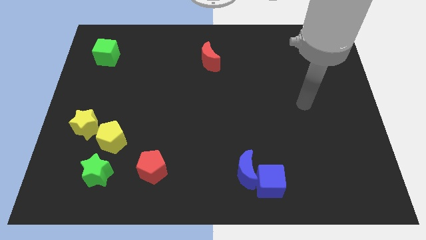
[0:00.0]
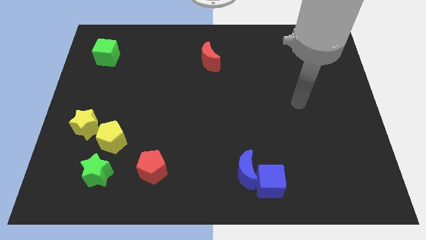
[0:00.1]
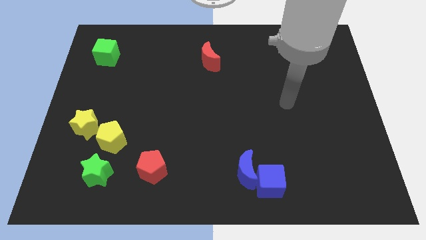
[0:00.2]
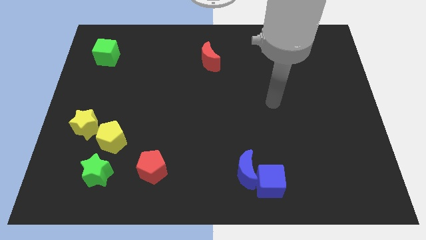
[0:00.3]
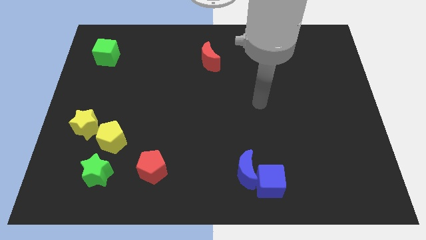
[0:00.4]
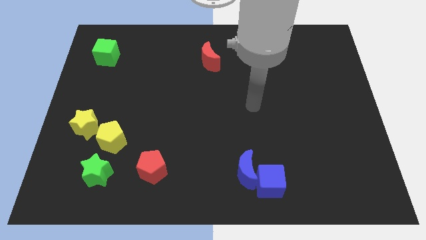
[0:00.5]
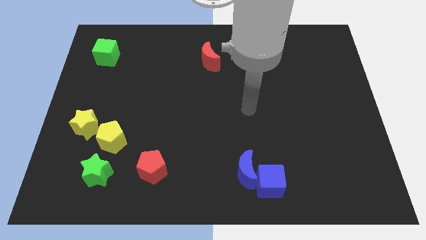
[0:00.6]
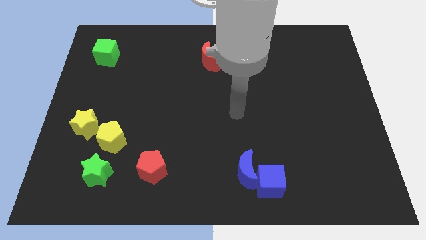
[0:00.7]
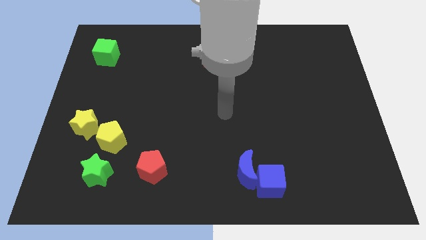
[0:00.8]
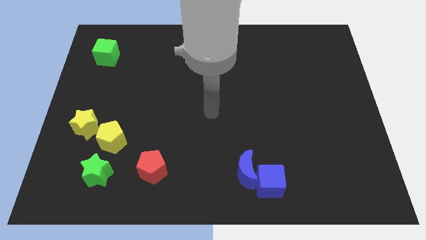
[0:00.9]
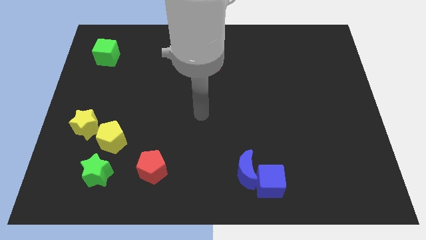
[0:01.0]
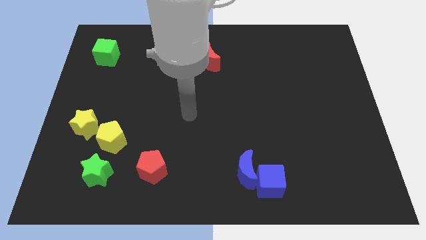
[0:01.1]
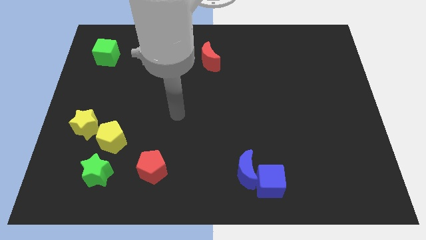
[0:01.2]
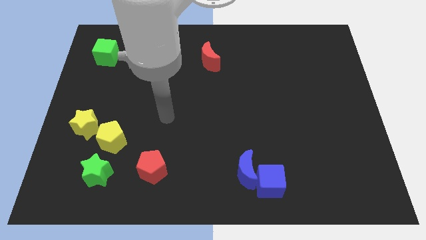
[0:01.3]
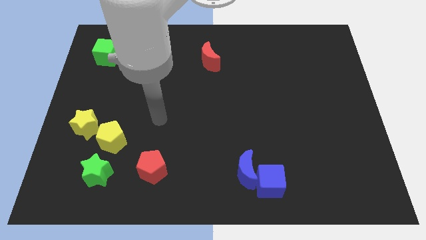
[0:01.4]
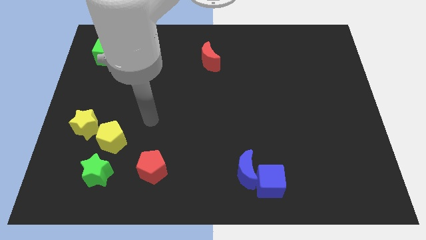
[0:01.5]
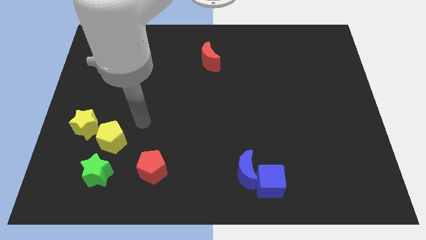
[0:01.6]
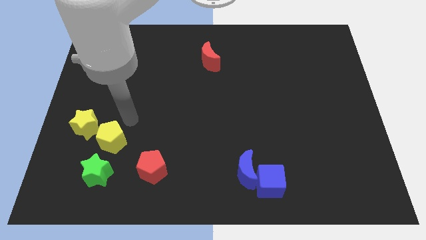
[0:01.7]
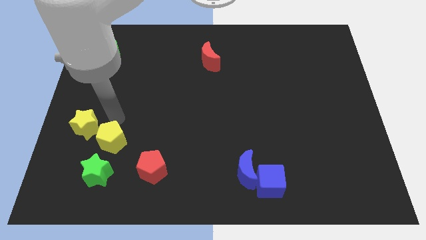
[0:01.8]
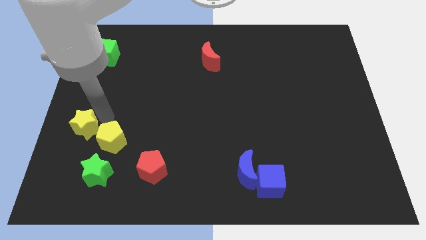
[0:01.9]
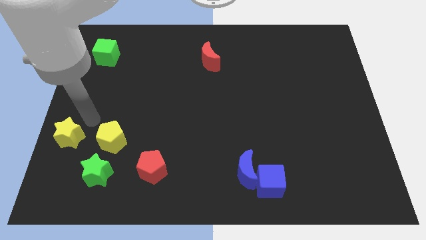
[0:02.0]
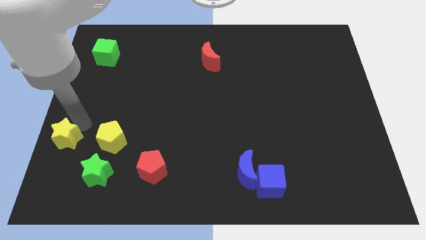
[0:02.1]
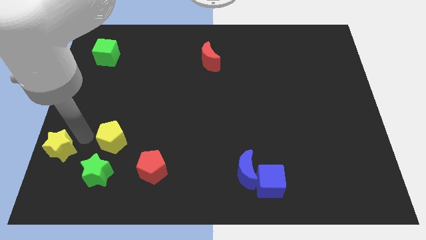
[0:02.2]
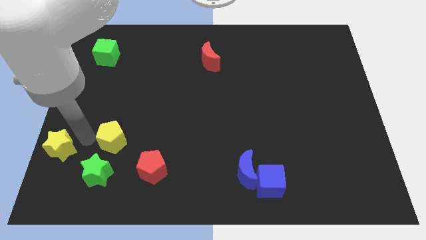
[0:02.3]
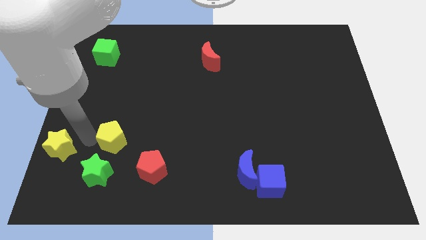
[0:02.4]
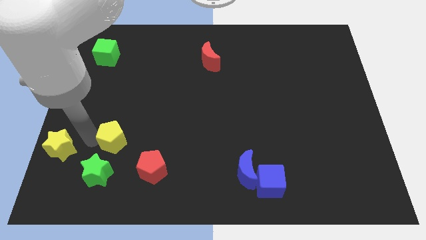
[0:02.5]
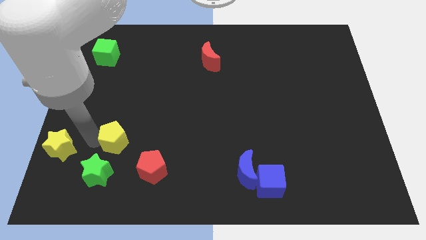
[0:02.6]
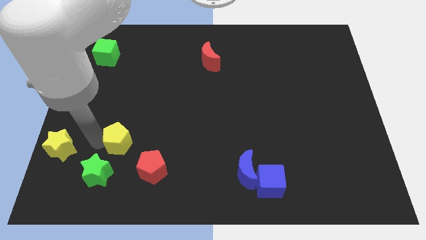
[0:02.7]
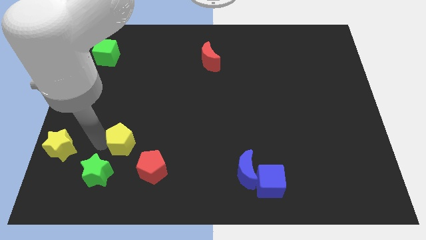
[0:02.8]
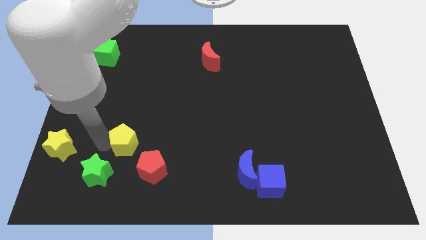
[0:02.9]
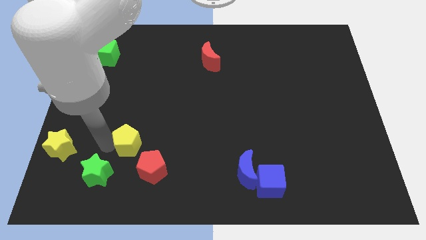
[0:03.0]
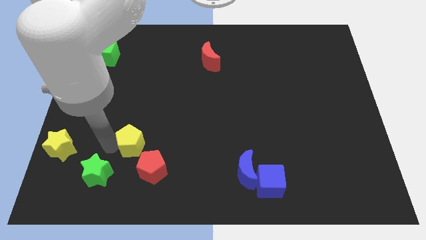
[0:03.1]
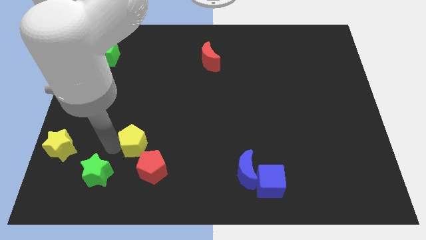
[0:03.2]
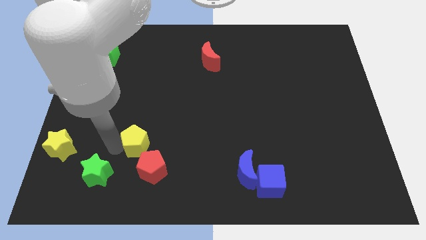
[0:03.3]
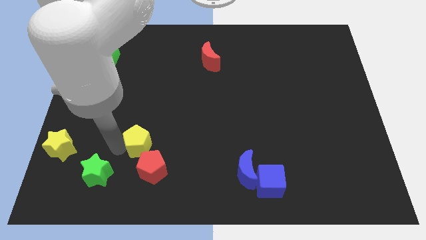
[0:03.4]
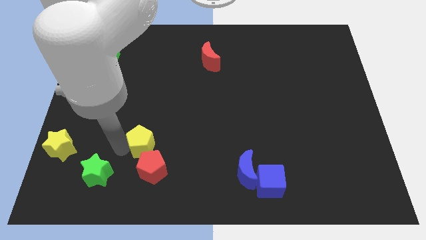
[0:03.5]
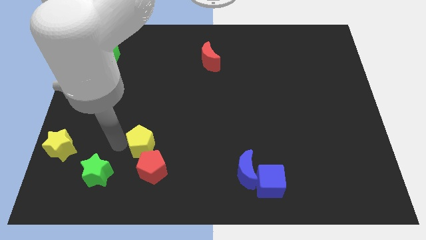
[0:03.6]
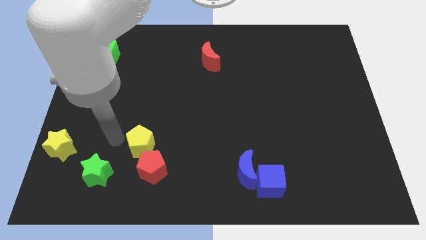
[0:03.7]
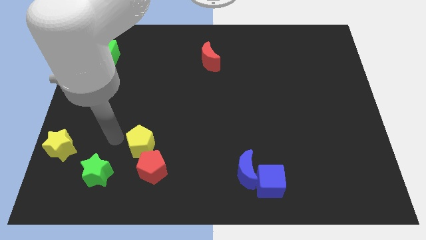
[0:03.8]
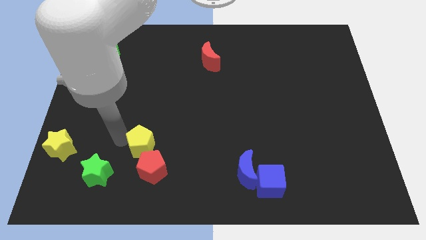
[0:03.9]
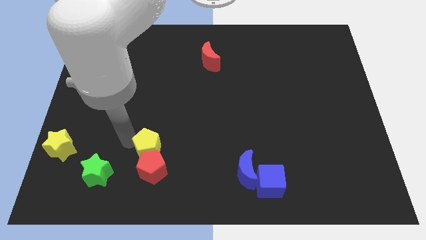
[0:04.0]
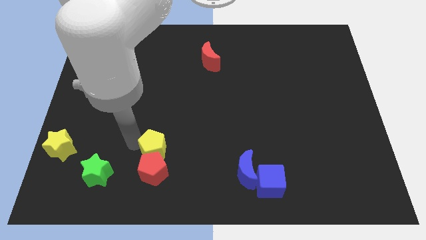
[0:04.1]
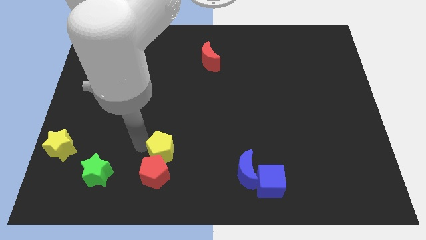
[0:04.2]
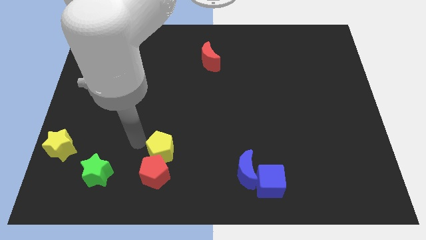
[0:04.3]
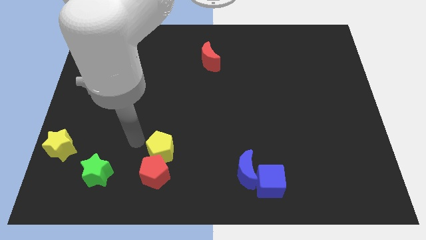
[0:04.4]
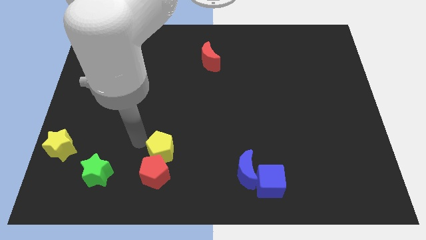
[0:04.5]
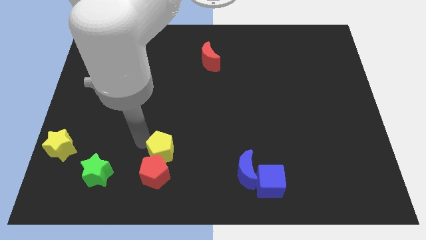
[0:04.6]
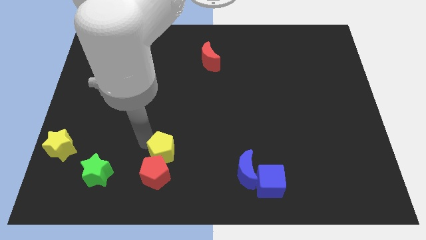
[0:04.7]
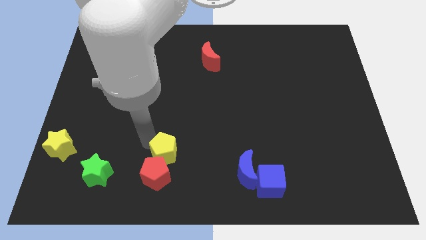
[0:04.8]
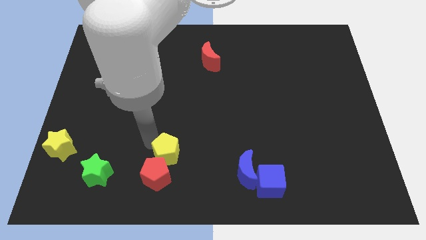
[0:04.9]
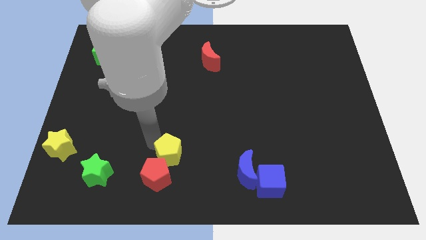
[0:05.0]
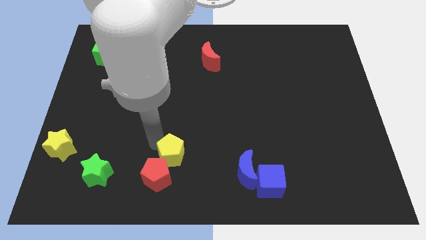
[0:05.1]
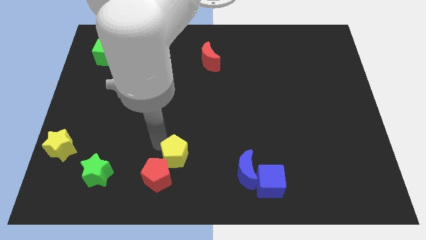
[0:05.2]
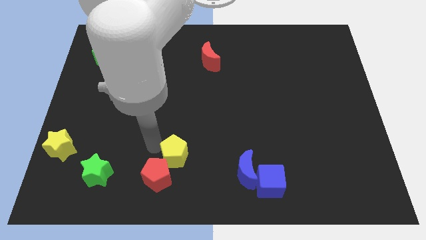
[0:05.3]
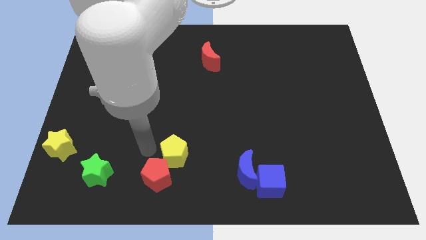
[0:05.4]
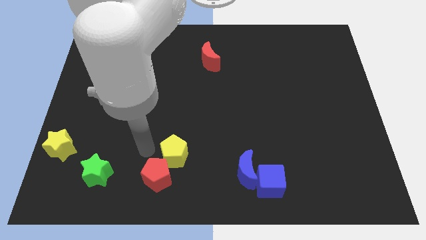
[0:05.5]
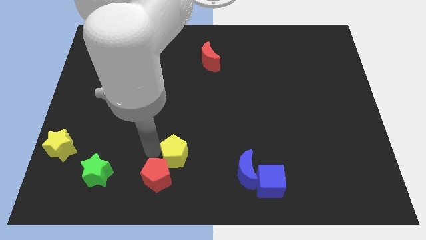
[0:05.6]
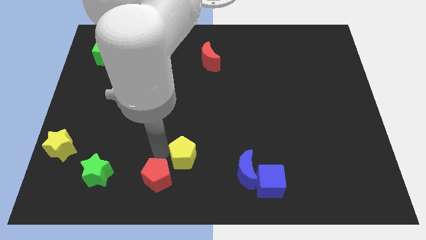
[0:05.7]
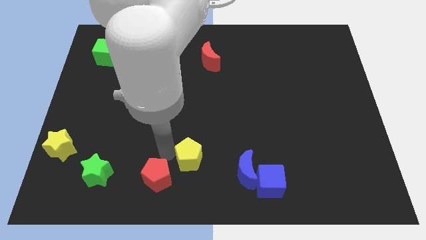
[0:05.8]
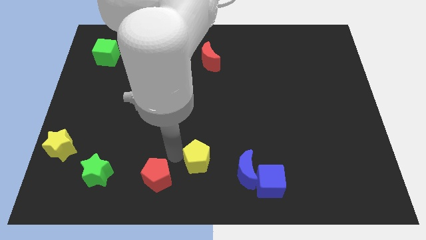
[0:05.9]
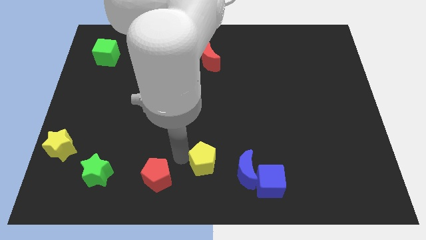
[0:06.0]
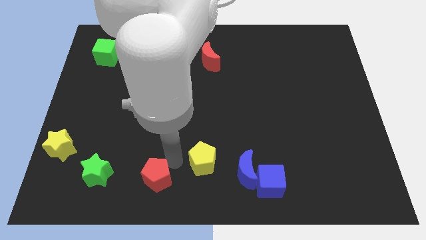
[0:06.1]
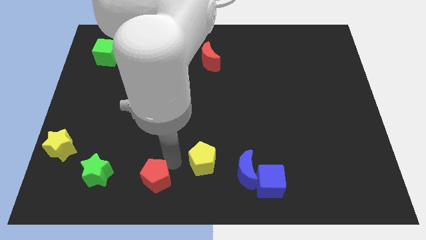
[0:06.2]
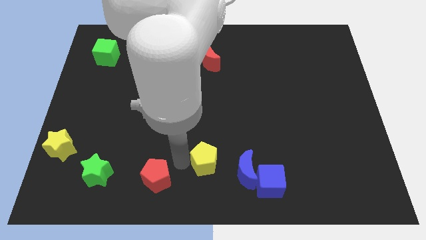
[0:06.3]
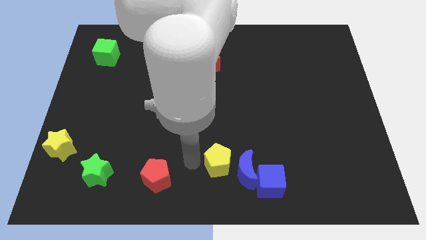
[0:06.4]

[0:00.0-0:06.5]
put the yellow pentagon to the top left of the blue cube

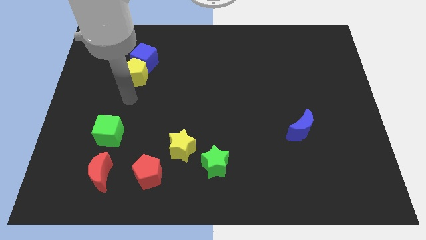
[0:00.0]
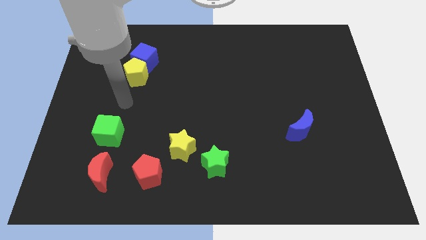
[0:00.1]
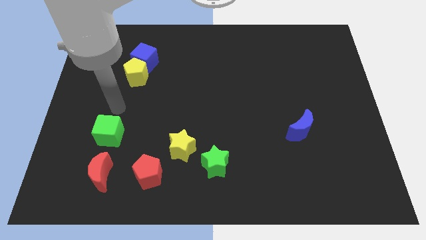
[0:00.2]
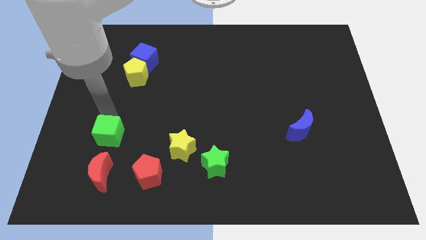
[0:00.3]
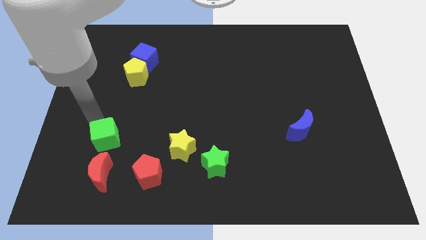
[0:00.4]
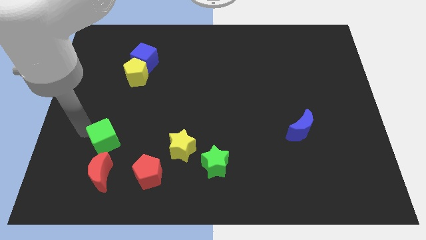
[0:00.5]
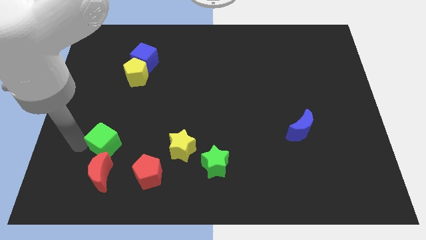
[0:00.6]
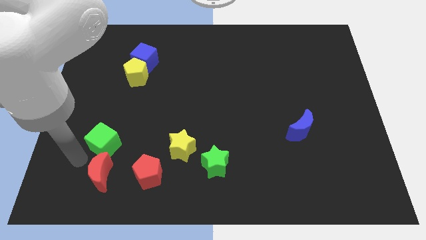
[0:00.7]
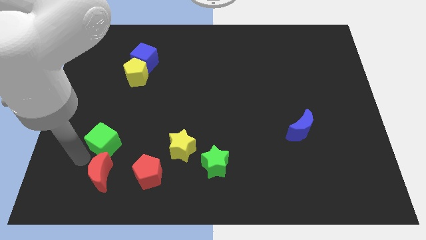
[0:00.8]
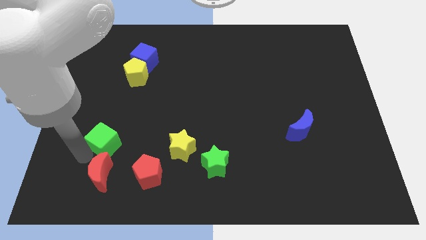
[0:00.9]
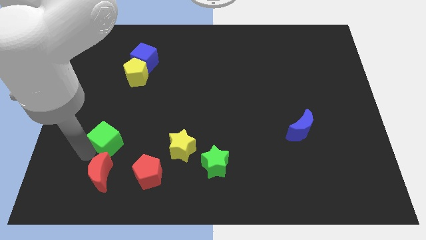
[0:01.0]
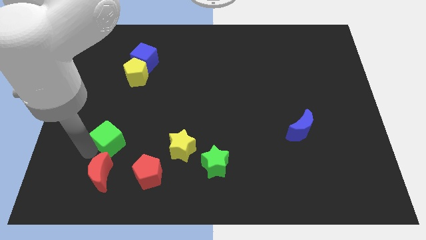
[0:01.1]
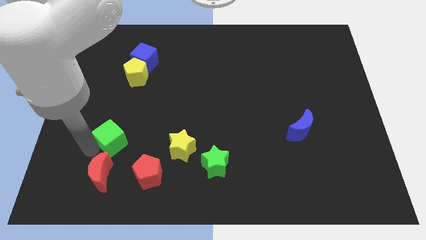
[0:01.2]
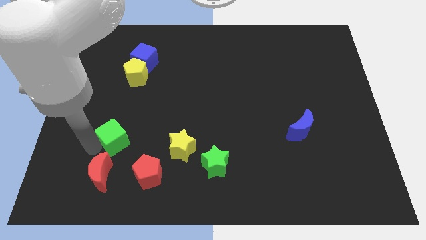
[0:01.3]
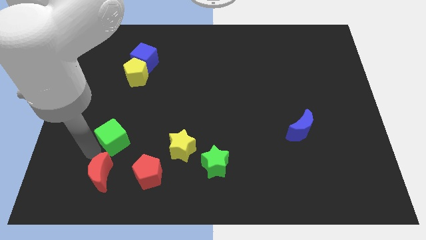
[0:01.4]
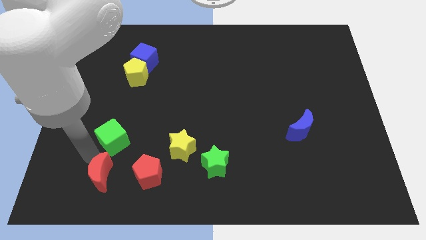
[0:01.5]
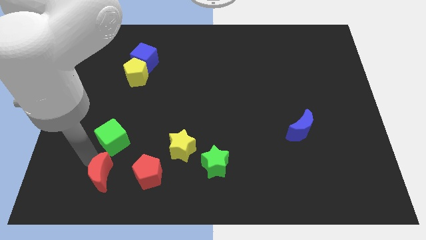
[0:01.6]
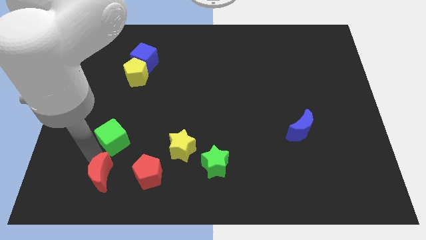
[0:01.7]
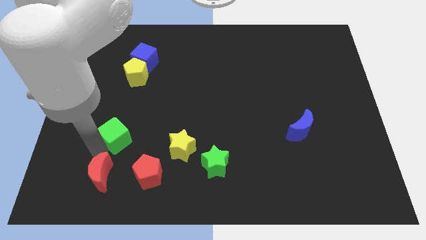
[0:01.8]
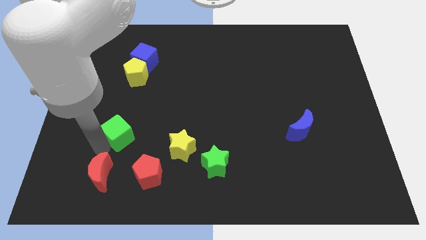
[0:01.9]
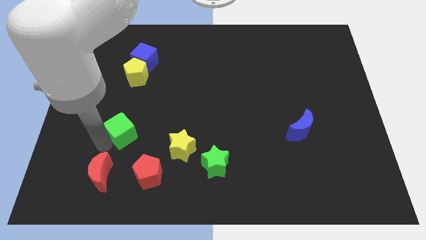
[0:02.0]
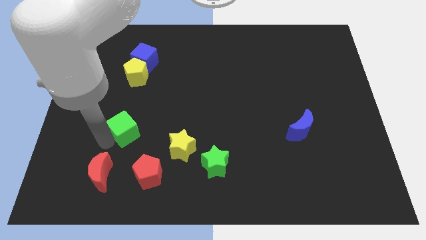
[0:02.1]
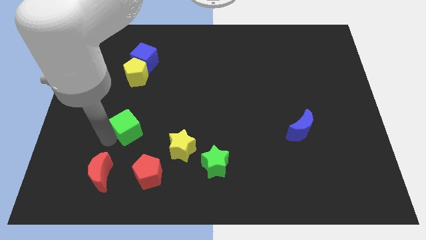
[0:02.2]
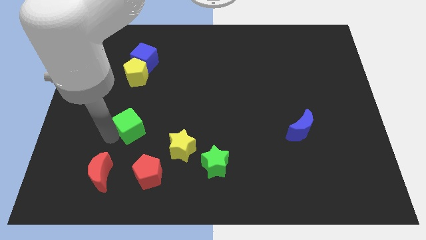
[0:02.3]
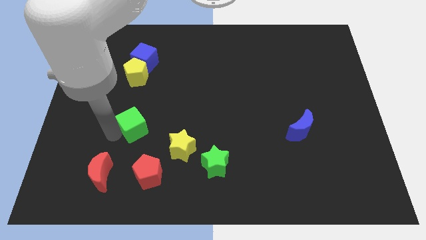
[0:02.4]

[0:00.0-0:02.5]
push the green cube to the top side of the red pentagon
